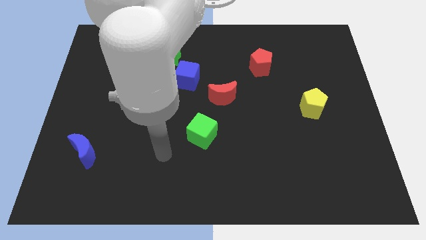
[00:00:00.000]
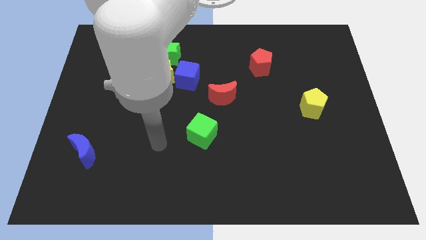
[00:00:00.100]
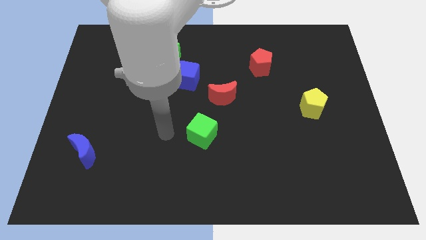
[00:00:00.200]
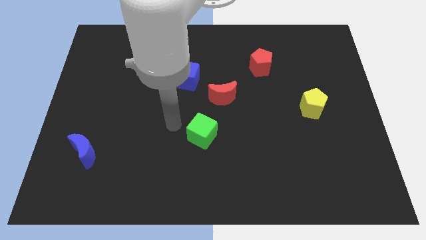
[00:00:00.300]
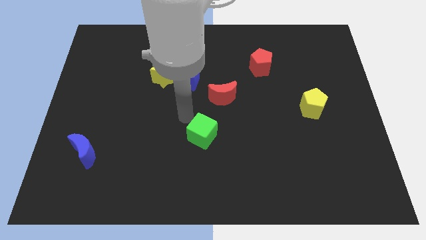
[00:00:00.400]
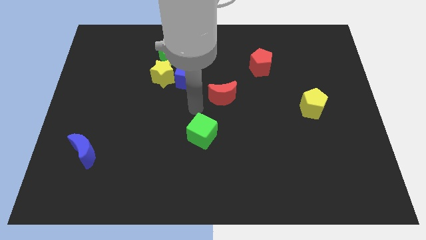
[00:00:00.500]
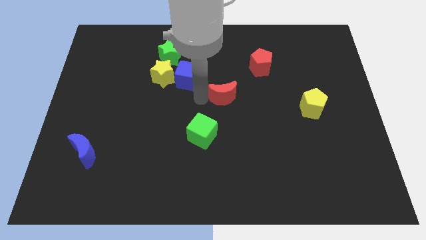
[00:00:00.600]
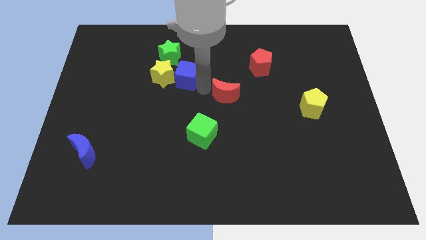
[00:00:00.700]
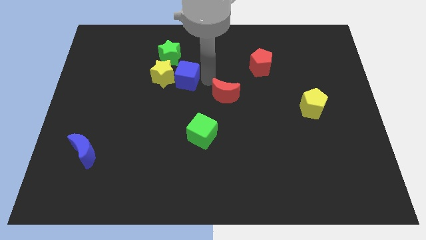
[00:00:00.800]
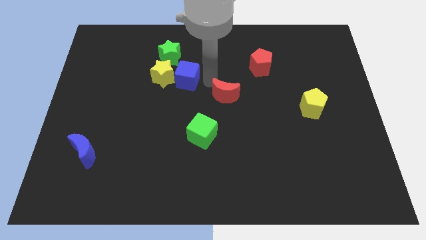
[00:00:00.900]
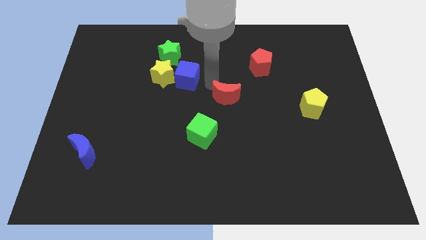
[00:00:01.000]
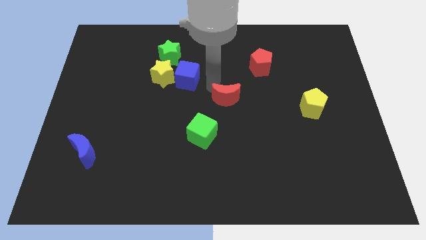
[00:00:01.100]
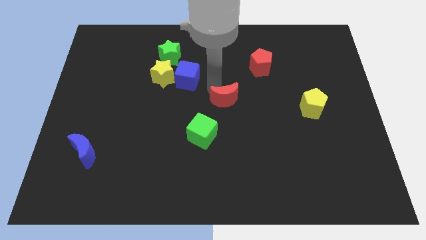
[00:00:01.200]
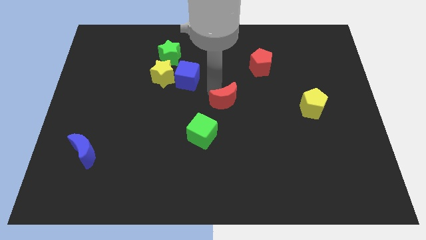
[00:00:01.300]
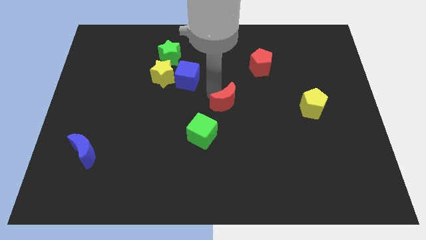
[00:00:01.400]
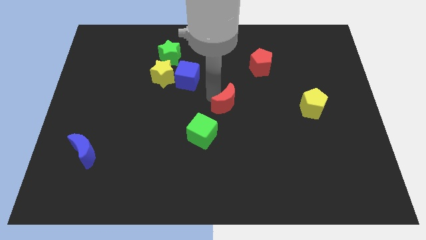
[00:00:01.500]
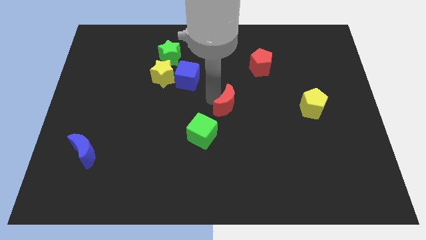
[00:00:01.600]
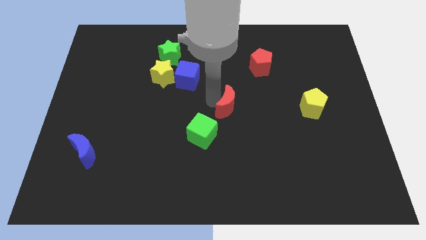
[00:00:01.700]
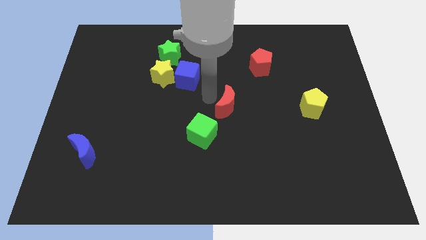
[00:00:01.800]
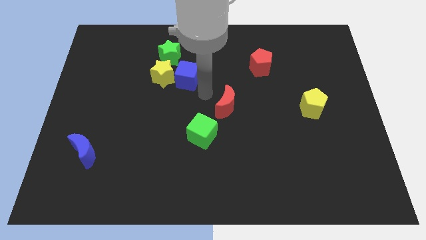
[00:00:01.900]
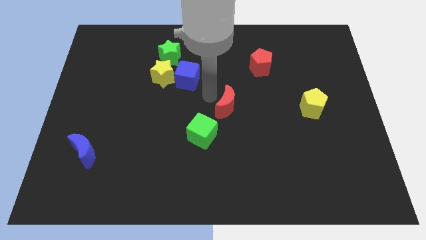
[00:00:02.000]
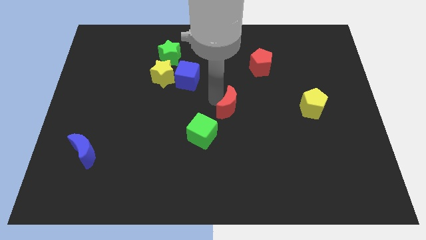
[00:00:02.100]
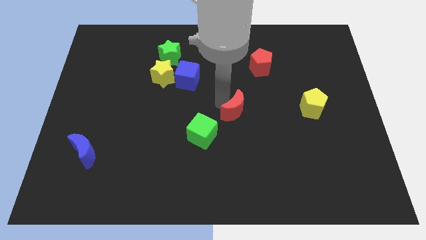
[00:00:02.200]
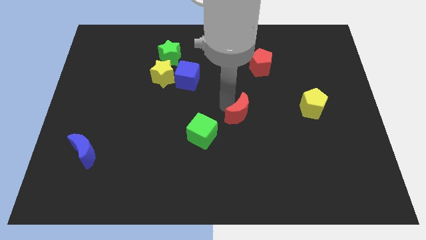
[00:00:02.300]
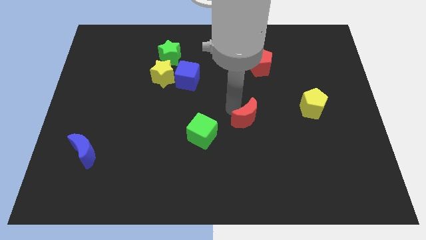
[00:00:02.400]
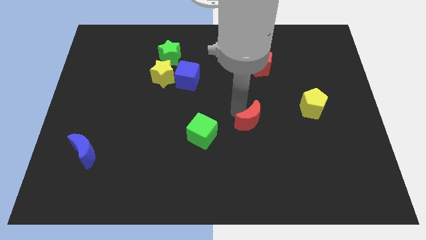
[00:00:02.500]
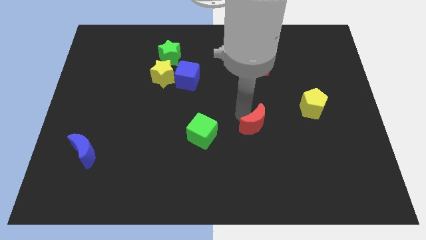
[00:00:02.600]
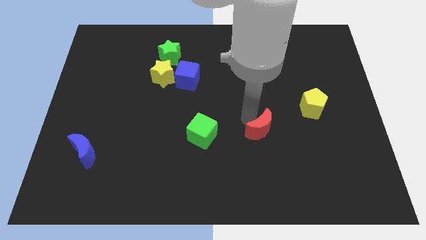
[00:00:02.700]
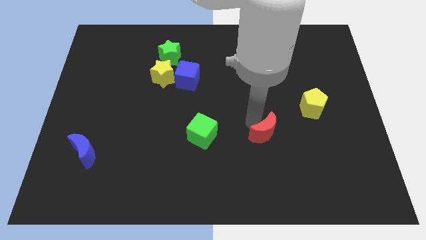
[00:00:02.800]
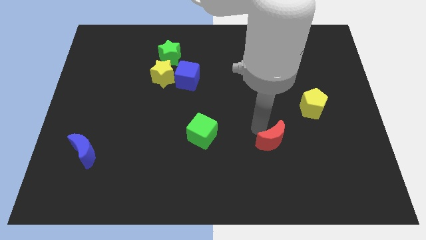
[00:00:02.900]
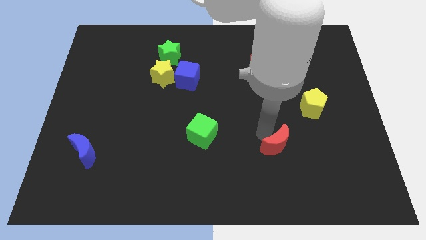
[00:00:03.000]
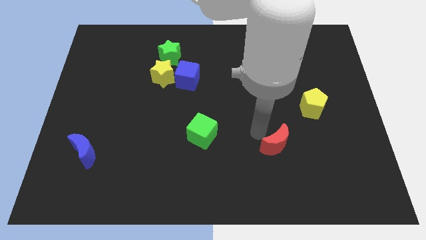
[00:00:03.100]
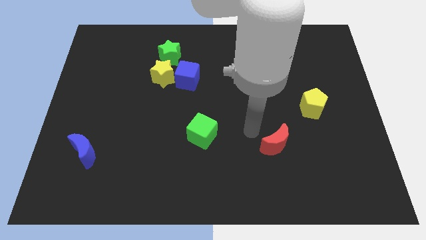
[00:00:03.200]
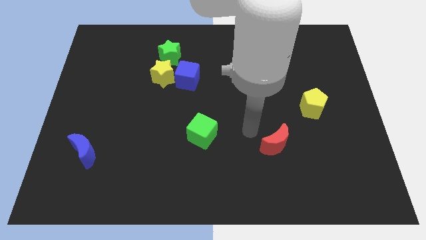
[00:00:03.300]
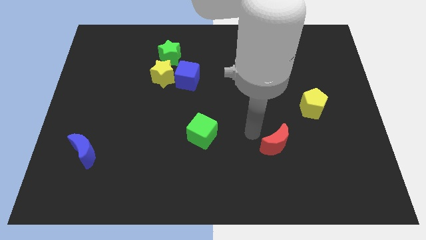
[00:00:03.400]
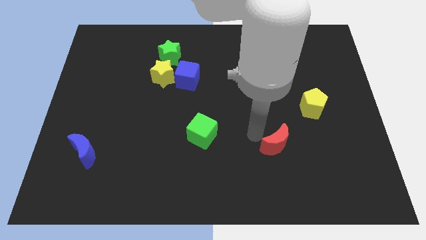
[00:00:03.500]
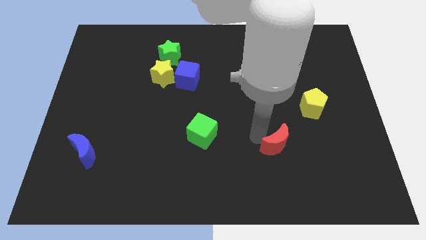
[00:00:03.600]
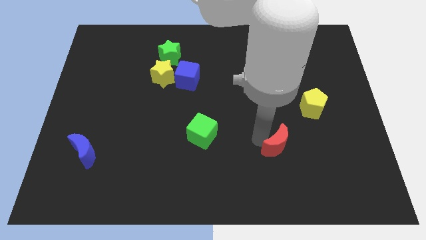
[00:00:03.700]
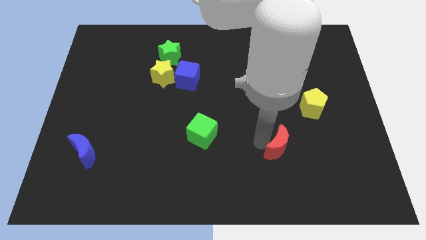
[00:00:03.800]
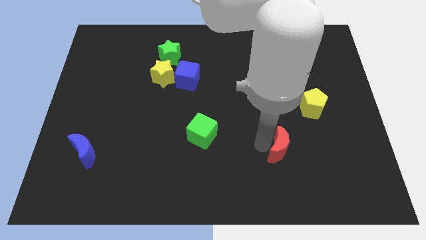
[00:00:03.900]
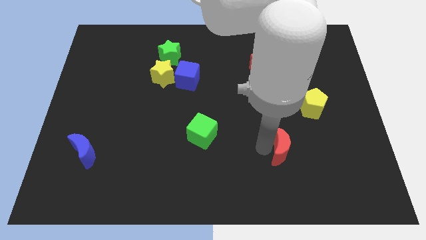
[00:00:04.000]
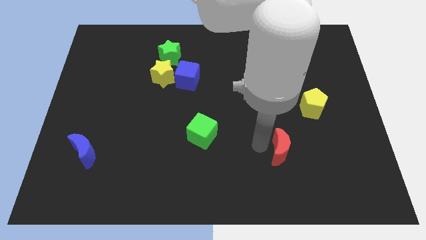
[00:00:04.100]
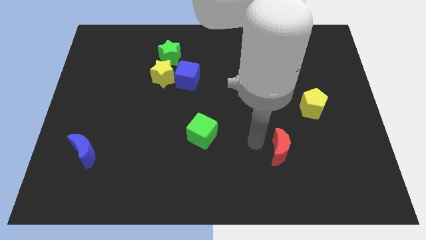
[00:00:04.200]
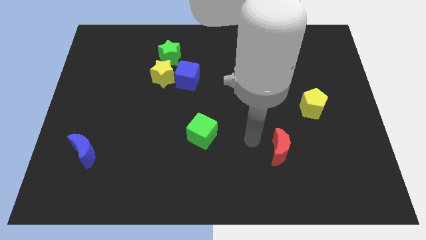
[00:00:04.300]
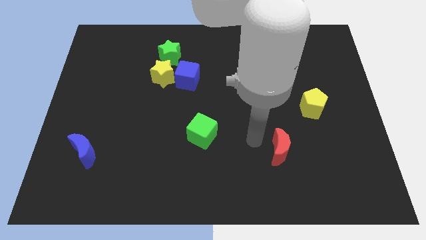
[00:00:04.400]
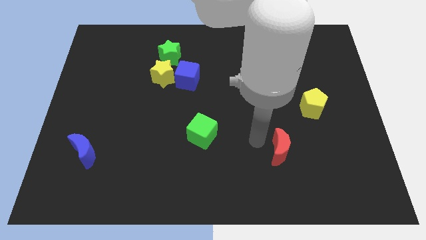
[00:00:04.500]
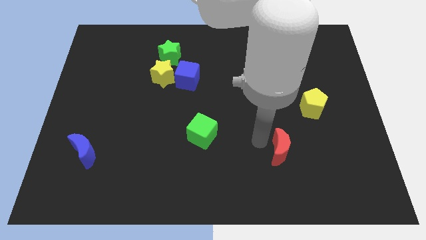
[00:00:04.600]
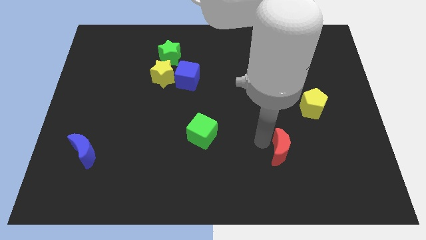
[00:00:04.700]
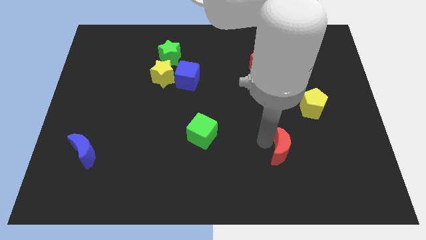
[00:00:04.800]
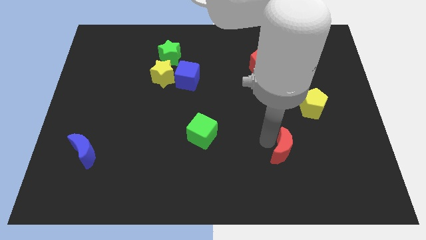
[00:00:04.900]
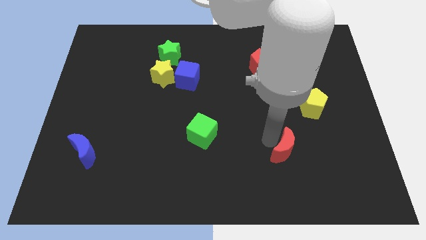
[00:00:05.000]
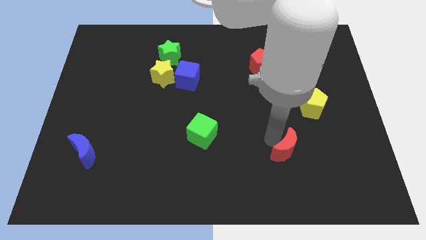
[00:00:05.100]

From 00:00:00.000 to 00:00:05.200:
move the red moon downwards and right

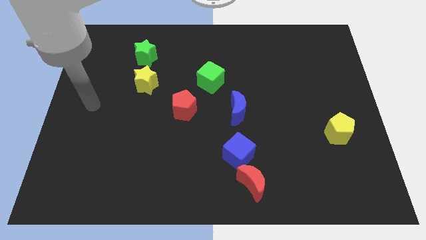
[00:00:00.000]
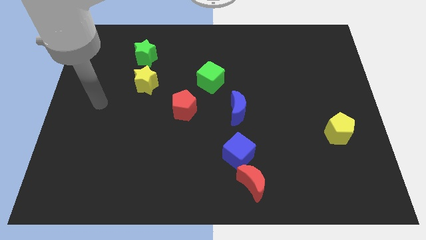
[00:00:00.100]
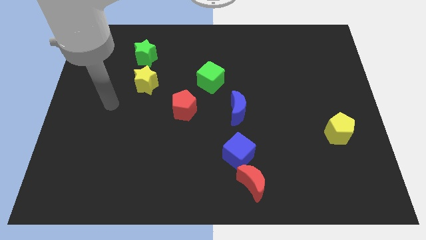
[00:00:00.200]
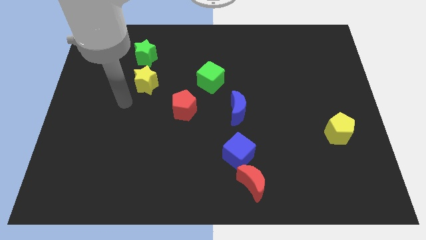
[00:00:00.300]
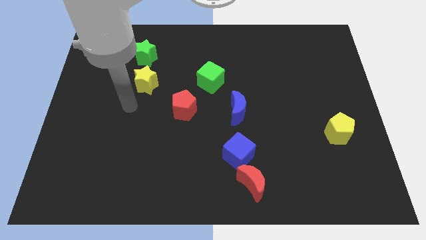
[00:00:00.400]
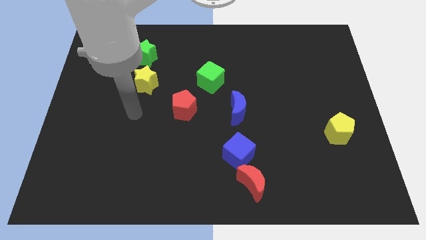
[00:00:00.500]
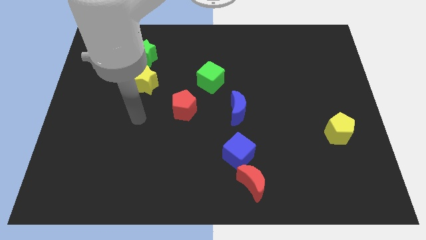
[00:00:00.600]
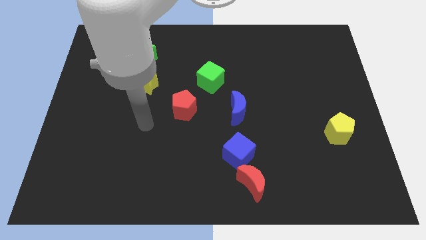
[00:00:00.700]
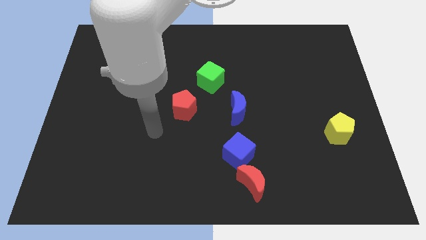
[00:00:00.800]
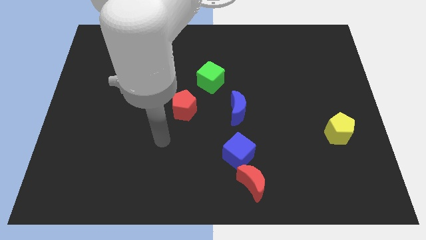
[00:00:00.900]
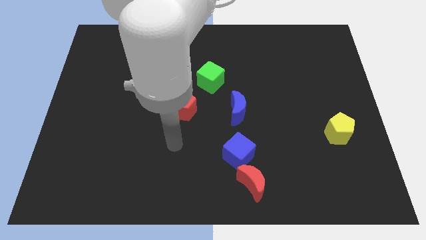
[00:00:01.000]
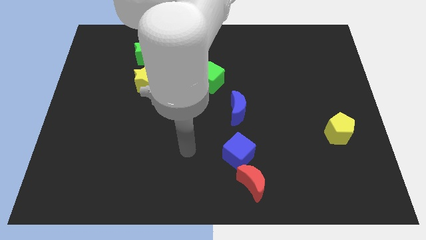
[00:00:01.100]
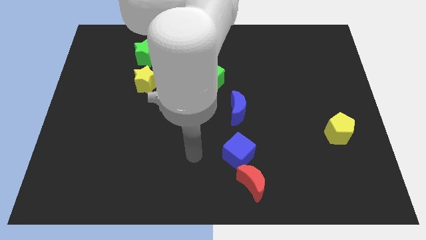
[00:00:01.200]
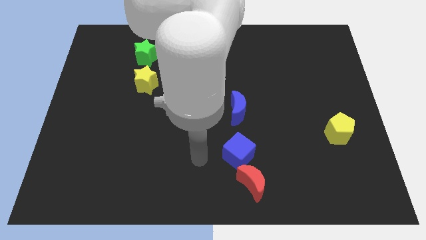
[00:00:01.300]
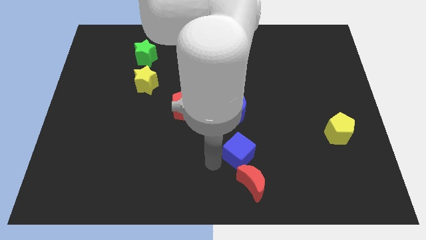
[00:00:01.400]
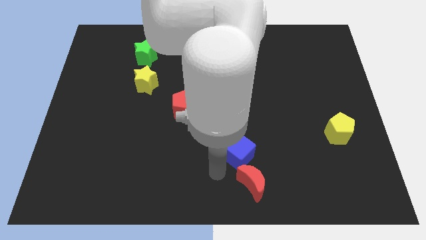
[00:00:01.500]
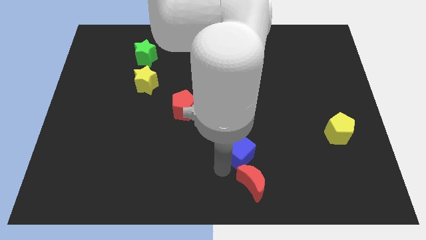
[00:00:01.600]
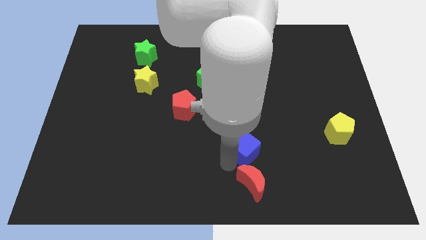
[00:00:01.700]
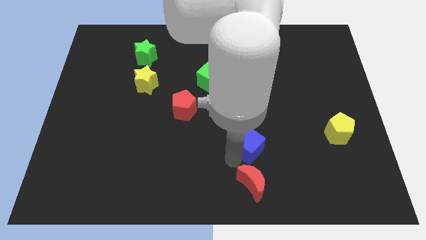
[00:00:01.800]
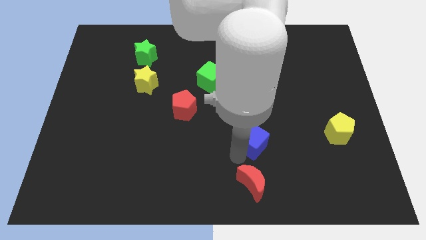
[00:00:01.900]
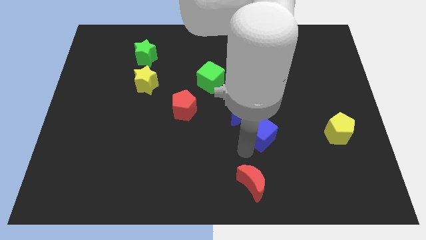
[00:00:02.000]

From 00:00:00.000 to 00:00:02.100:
push the blue cube a bit diagonally upwards and right

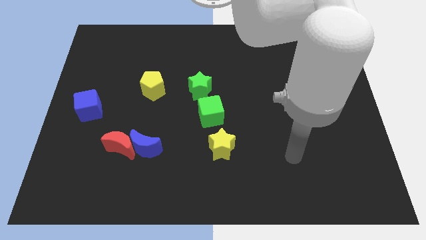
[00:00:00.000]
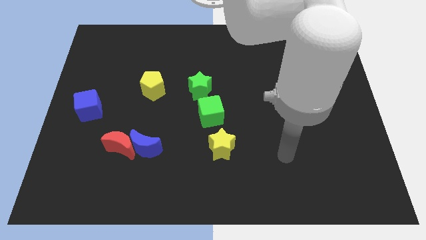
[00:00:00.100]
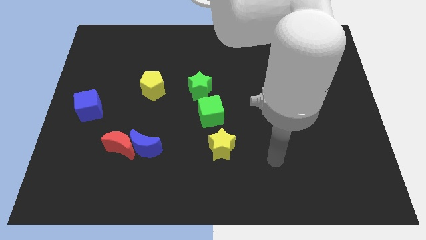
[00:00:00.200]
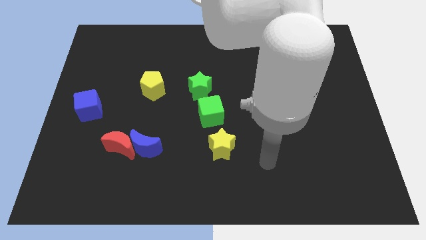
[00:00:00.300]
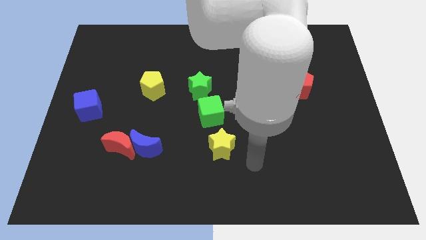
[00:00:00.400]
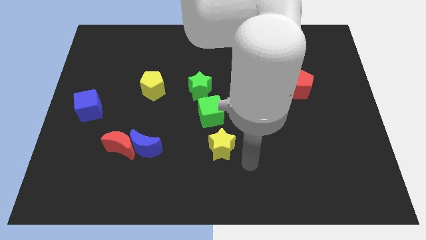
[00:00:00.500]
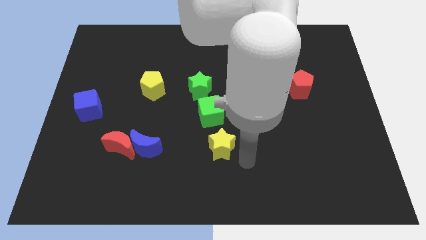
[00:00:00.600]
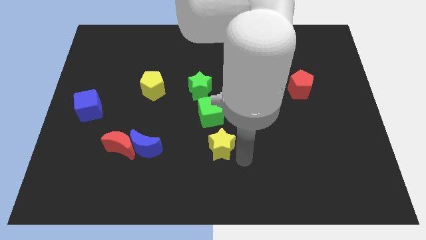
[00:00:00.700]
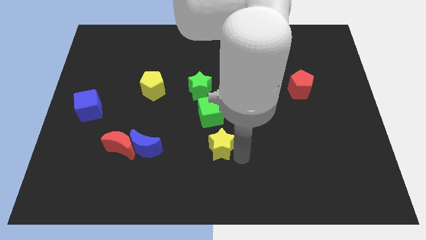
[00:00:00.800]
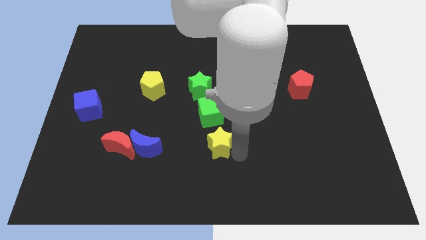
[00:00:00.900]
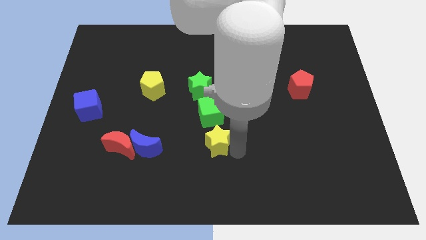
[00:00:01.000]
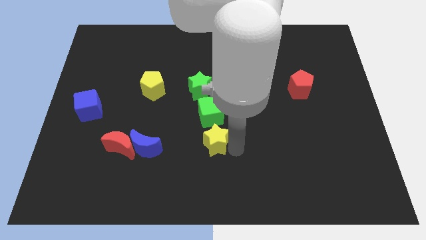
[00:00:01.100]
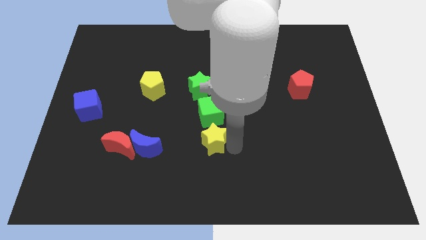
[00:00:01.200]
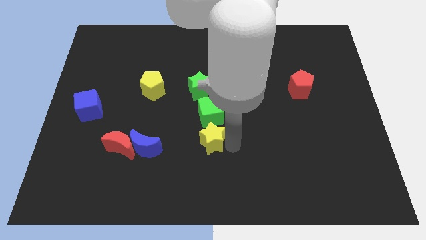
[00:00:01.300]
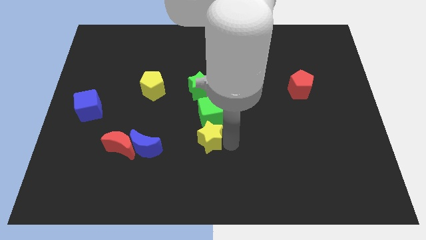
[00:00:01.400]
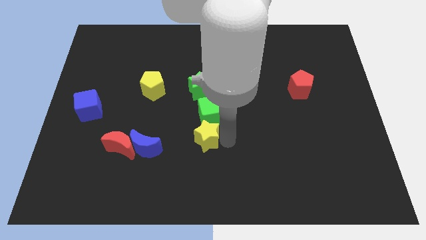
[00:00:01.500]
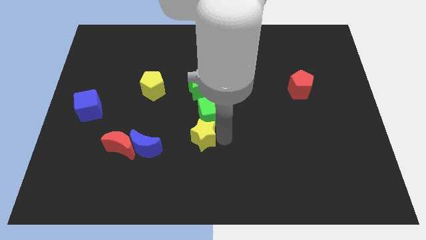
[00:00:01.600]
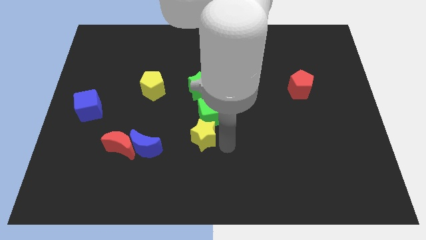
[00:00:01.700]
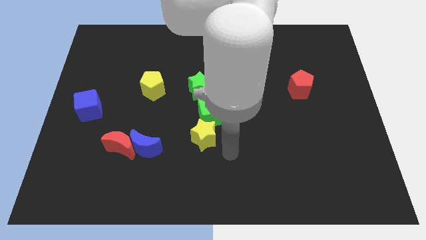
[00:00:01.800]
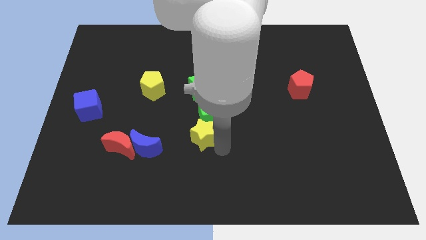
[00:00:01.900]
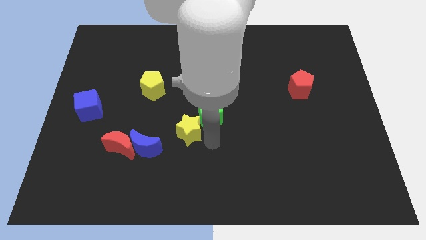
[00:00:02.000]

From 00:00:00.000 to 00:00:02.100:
push the yellow star upwards and then to the left a little
